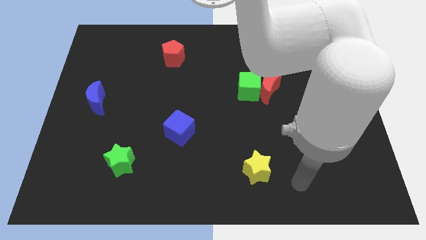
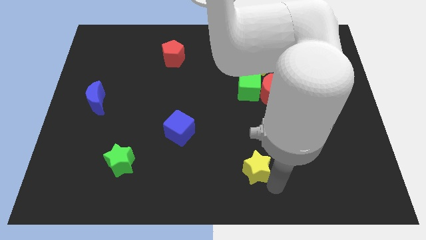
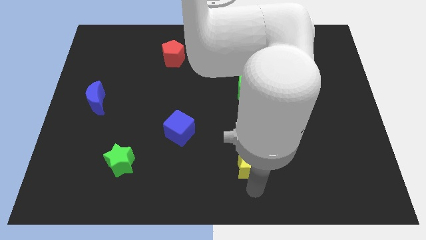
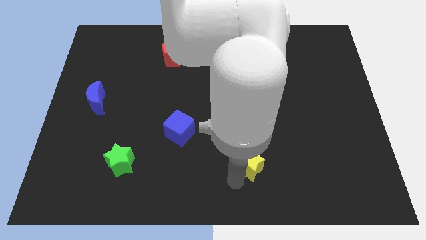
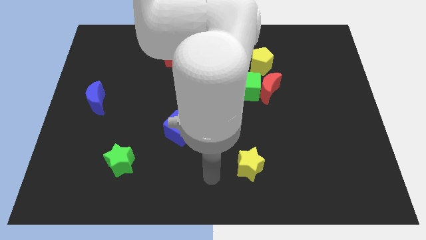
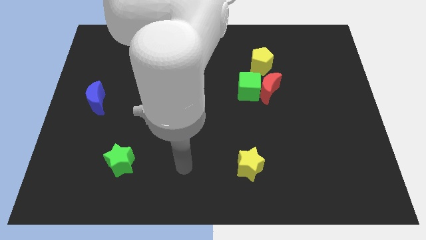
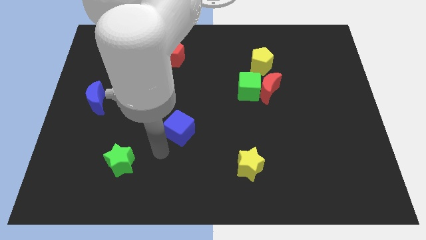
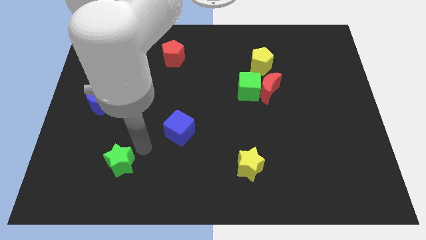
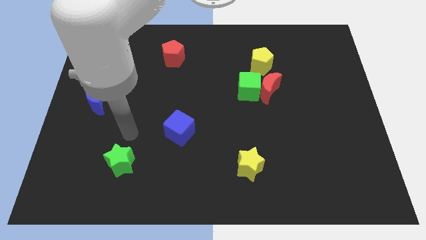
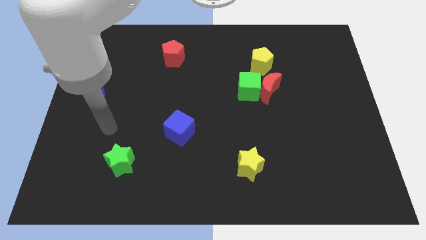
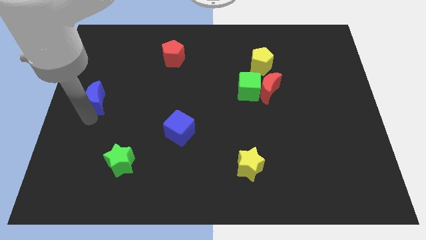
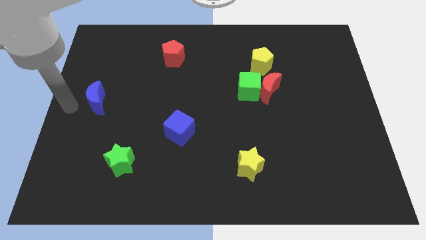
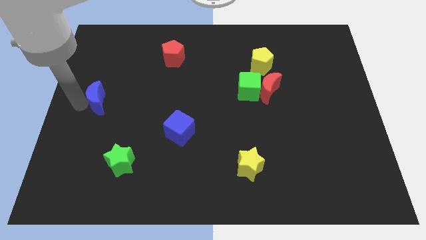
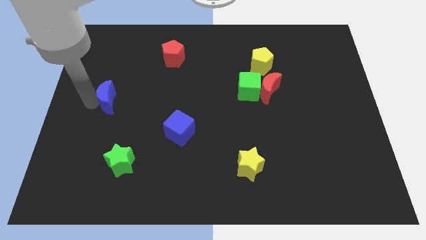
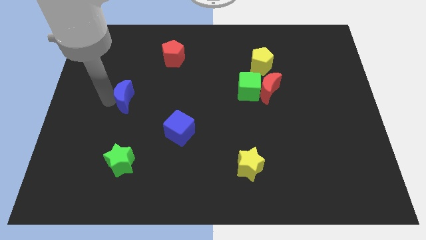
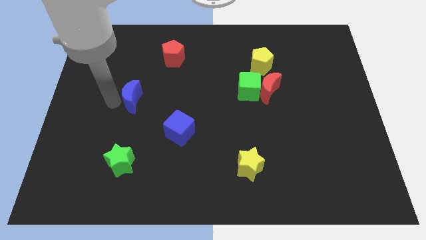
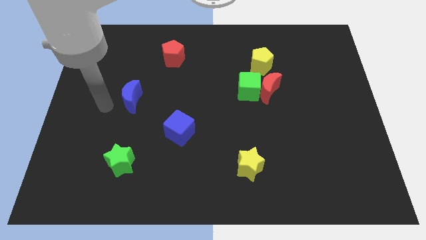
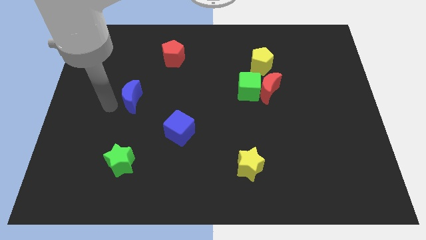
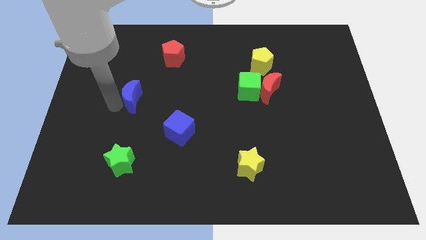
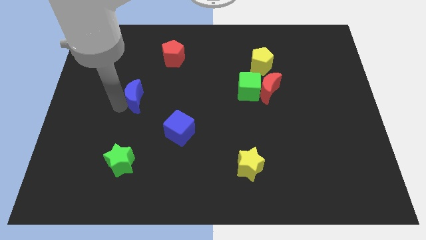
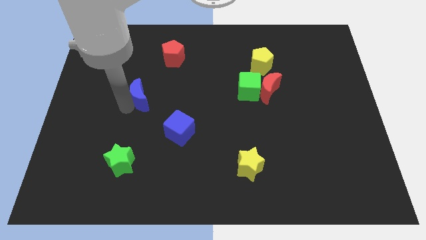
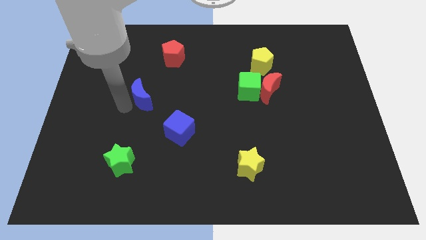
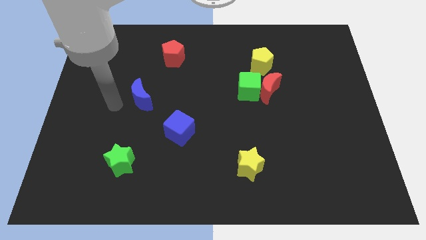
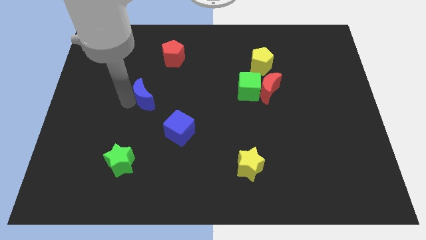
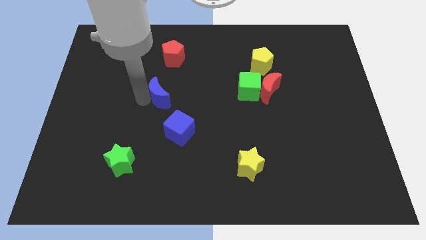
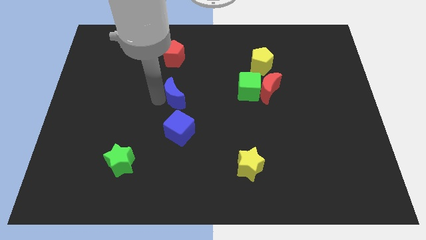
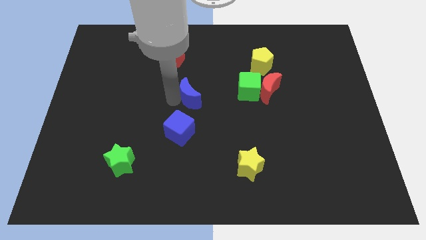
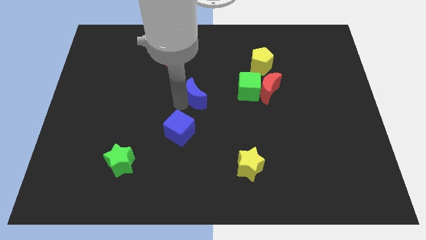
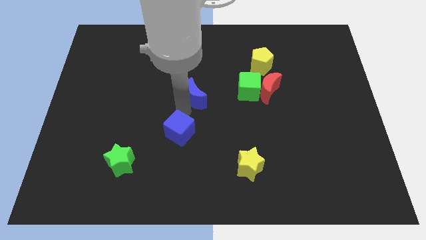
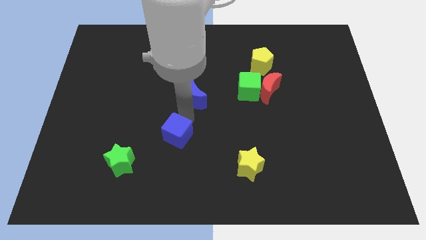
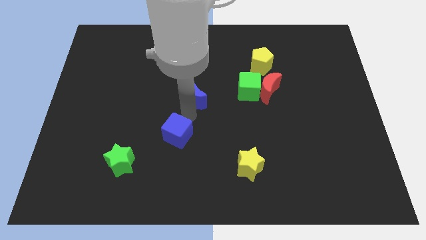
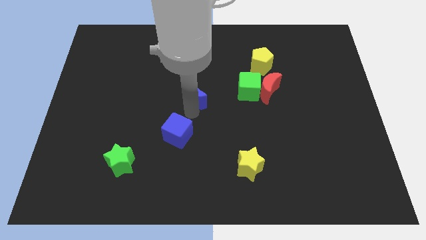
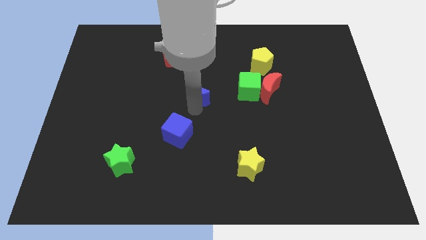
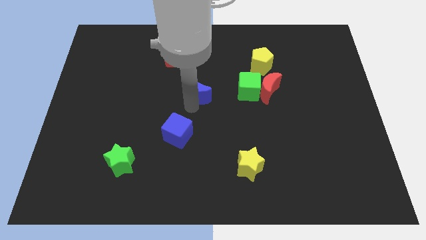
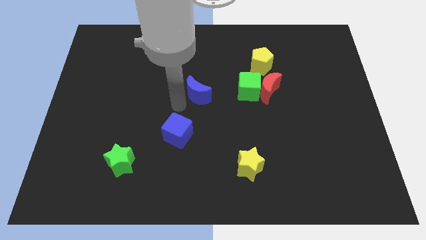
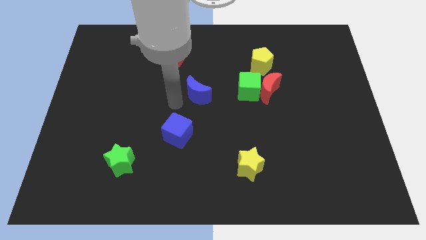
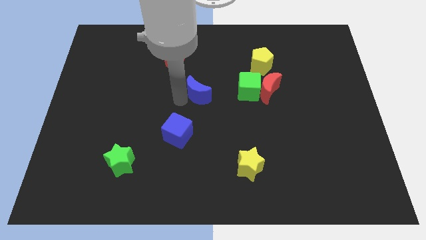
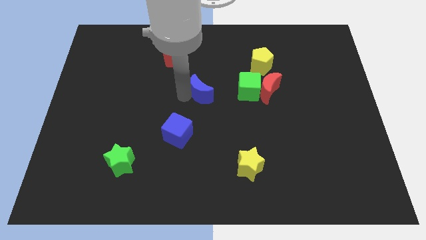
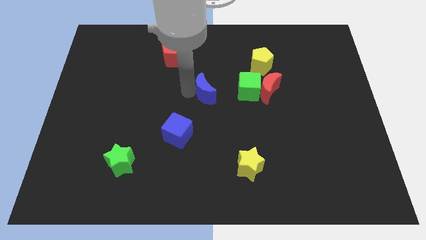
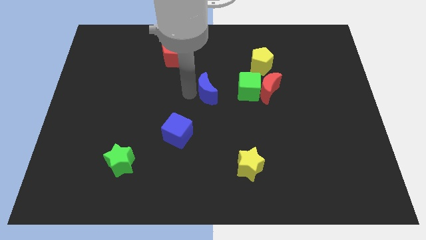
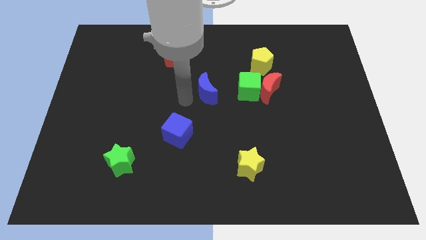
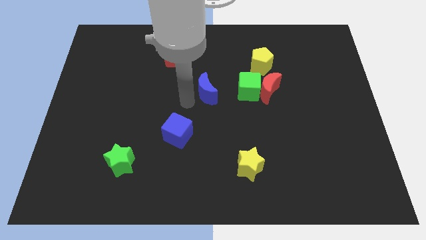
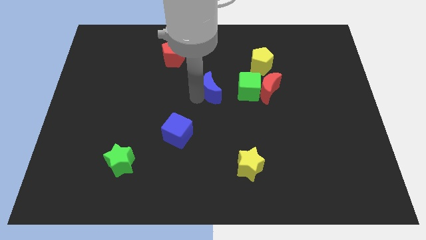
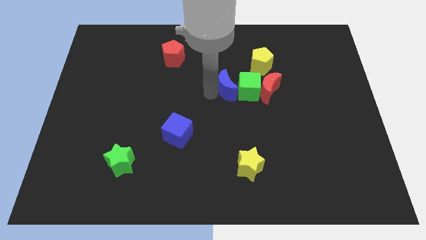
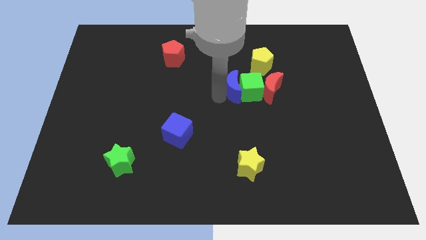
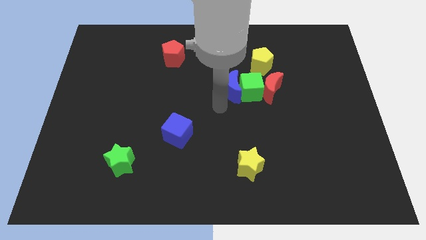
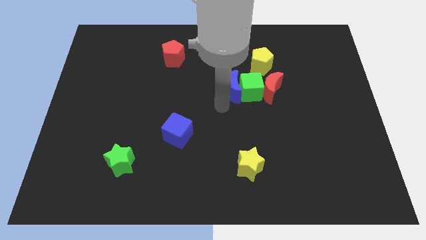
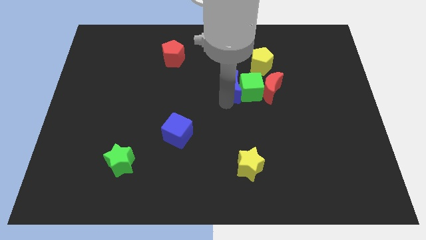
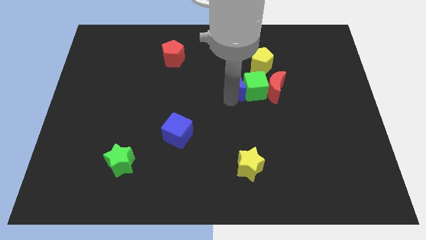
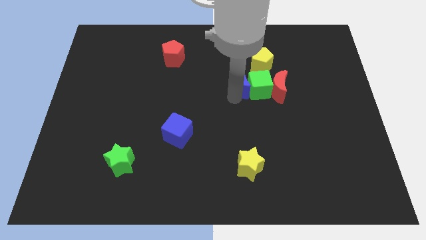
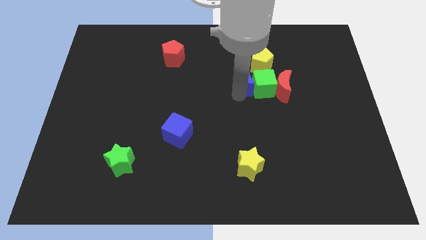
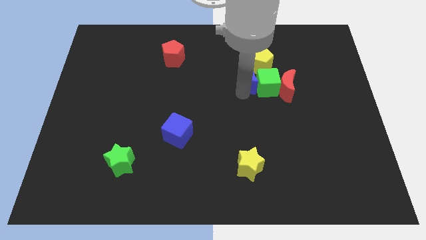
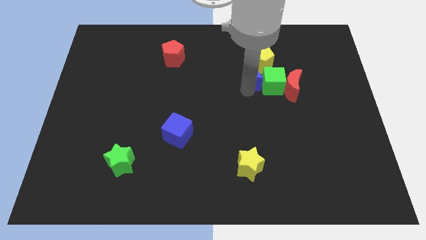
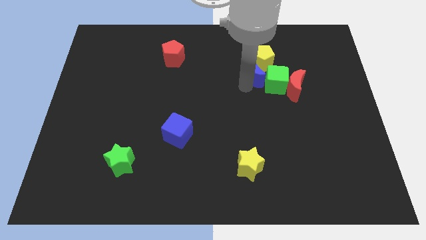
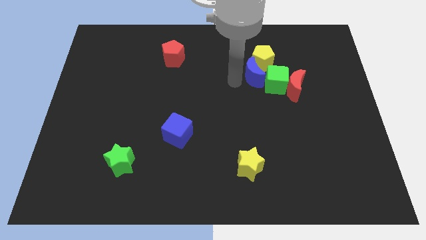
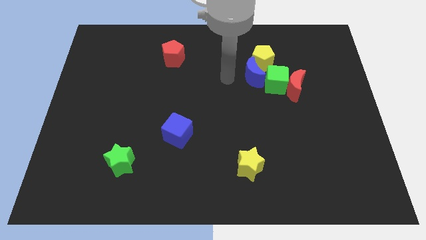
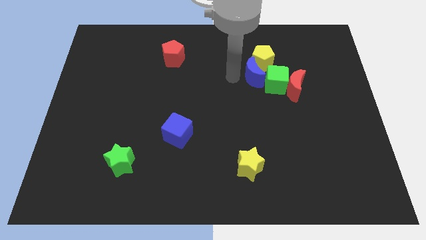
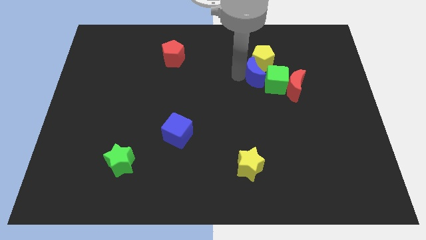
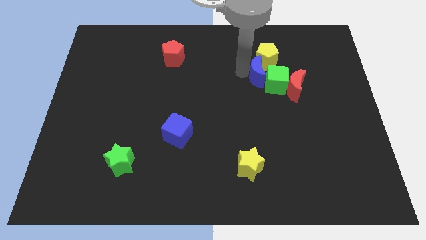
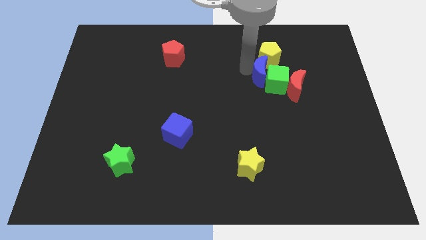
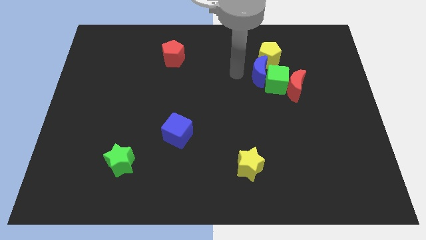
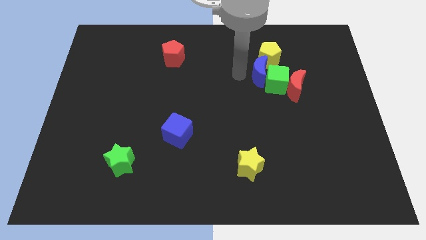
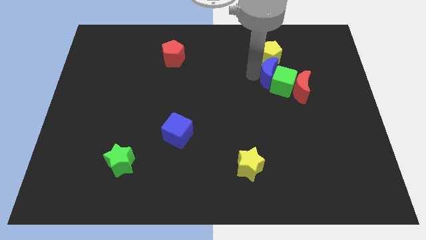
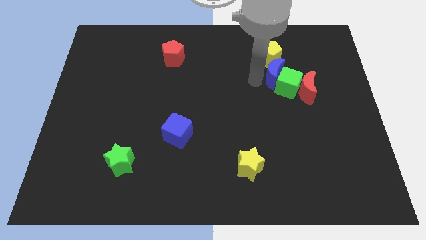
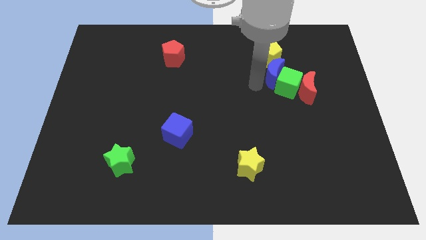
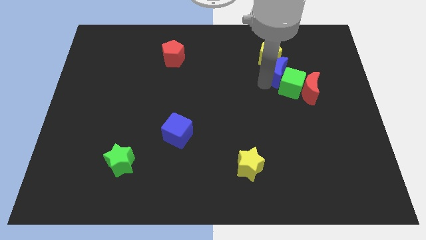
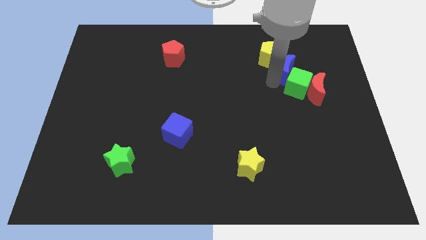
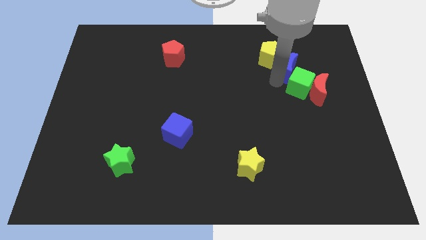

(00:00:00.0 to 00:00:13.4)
move the blue moon to the right side of the yellow pentagon
